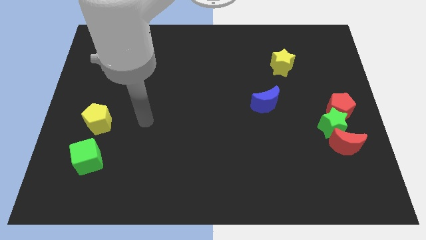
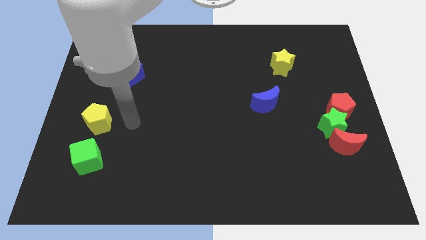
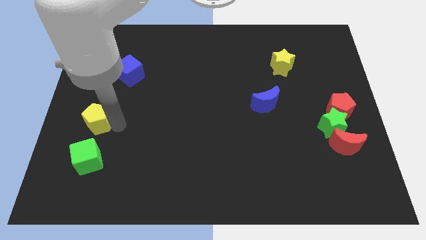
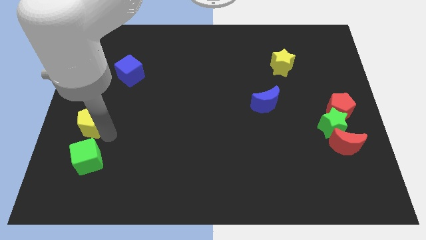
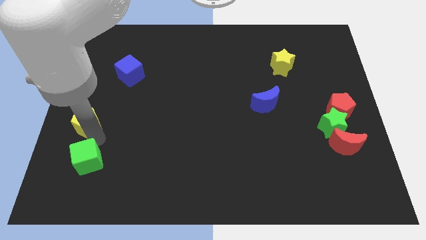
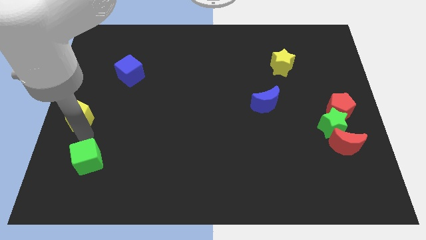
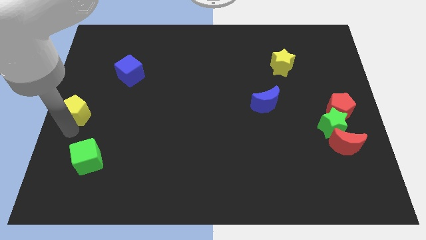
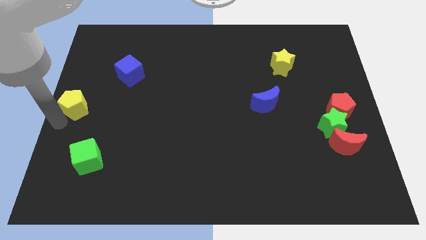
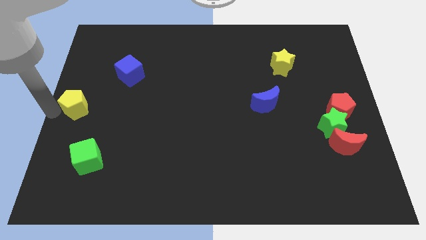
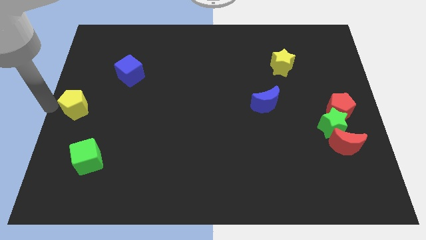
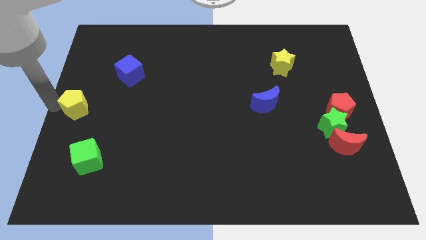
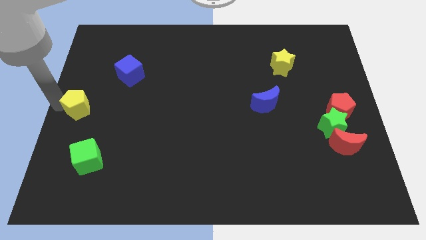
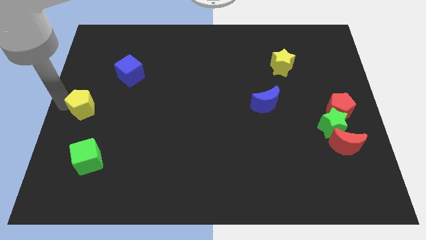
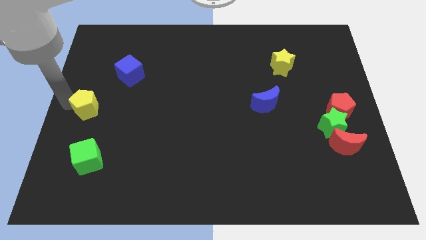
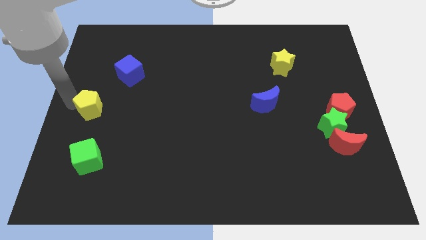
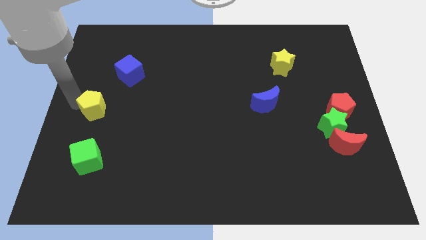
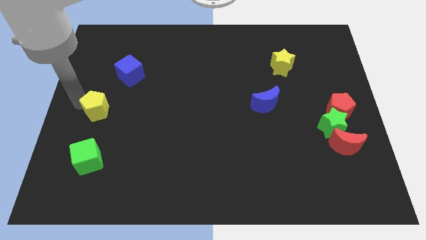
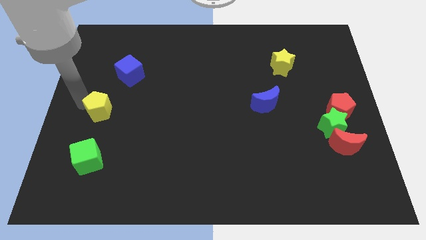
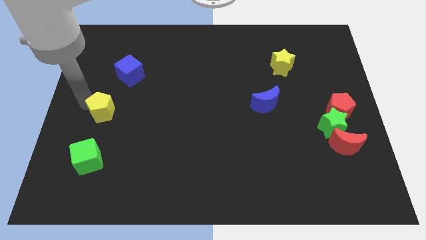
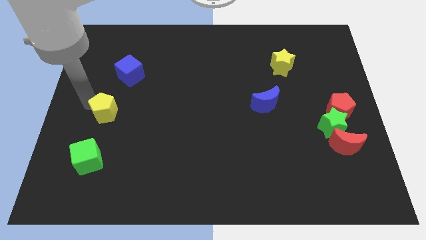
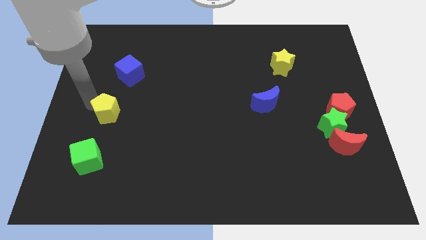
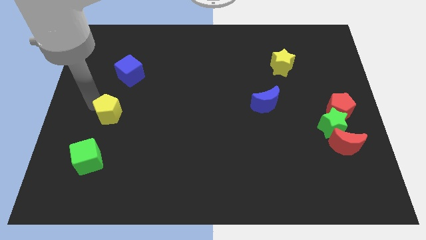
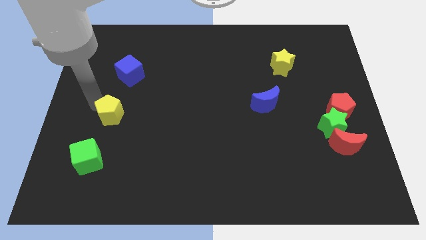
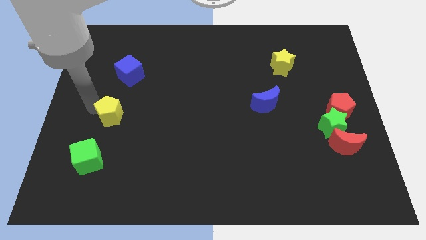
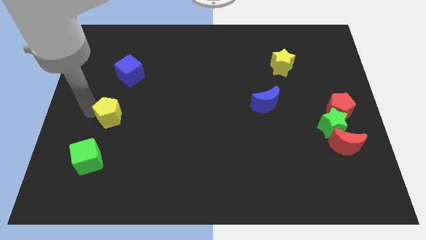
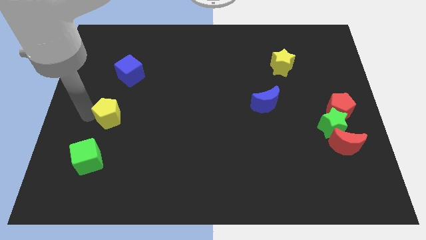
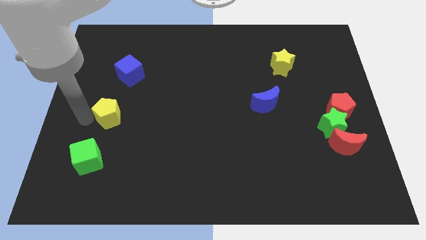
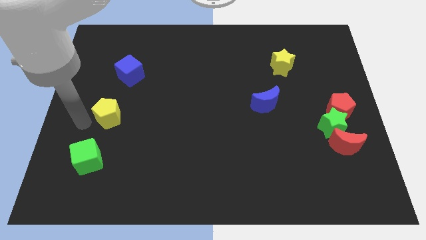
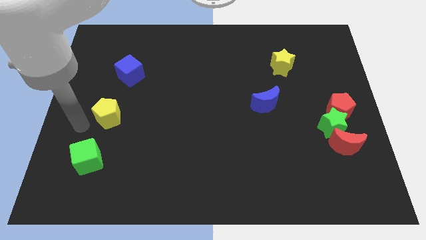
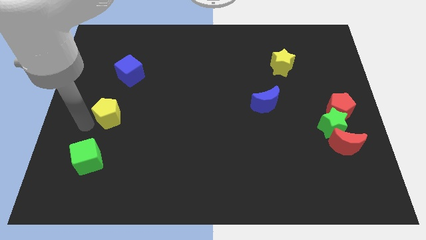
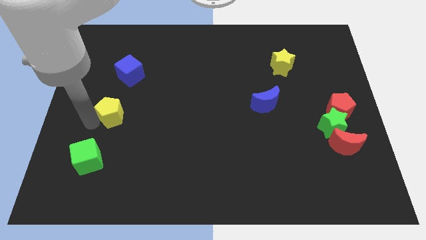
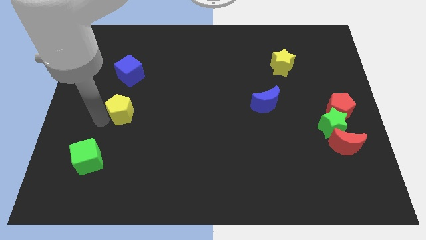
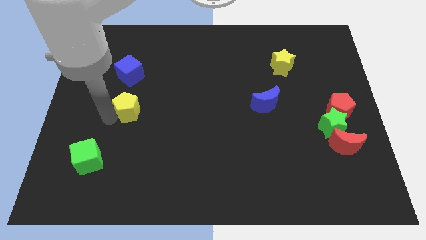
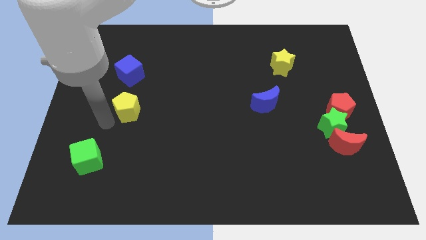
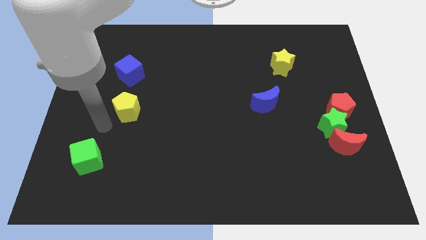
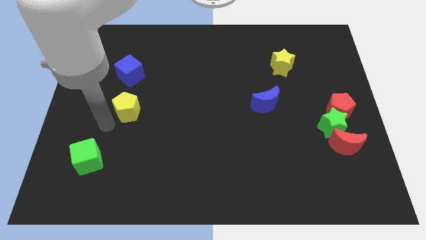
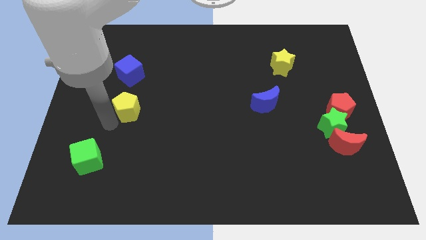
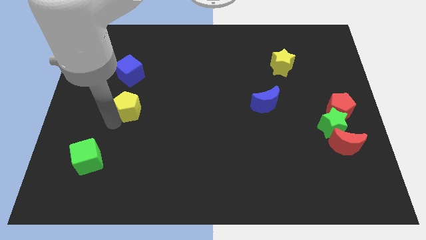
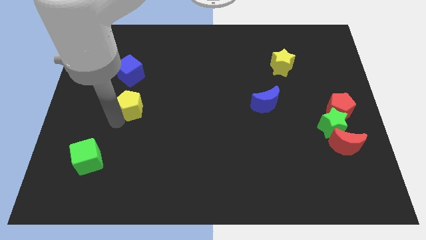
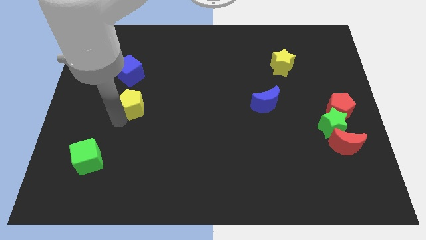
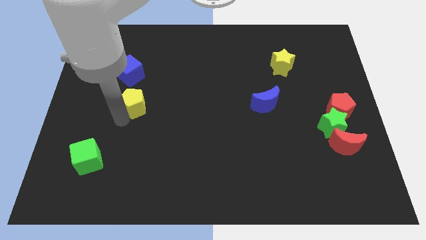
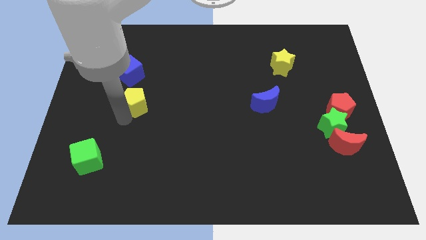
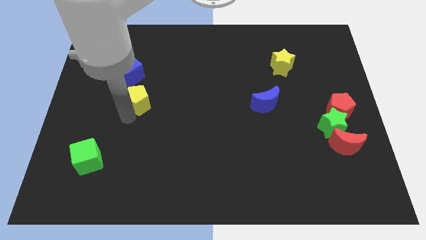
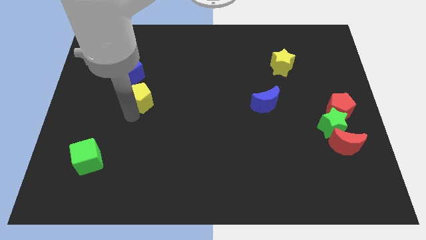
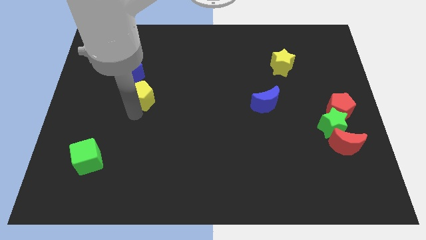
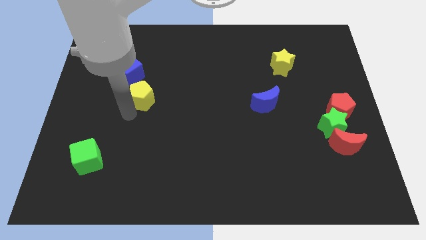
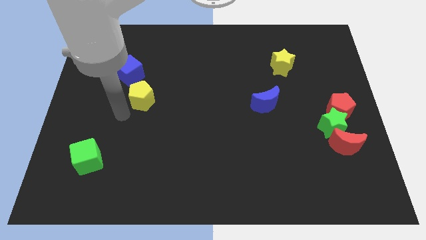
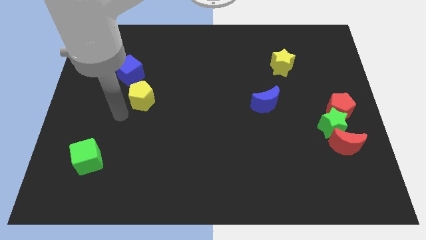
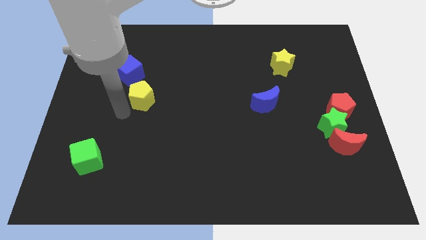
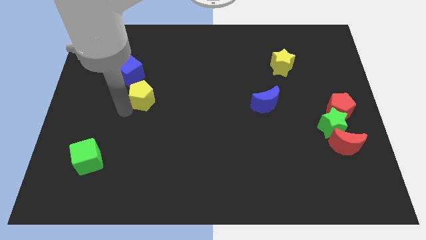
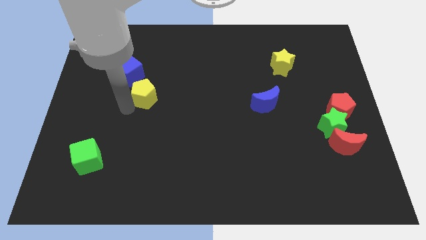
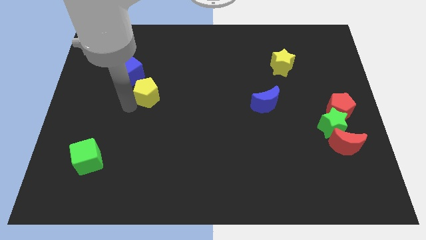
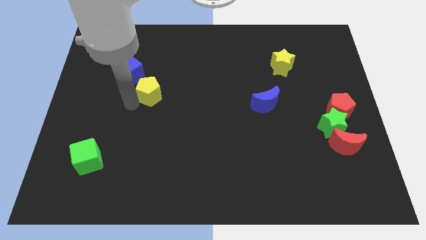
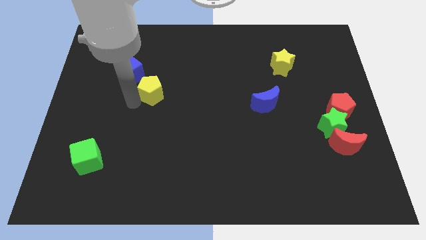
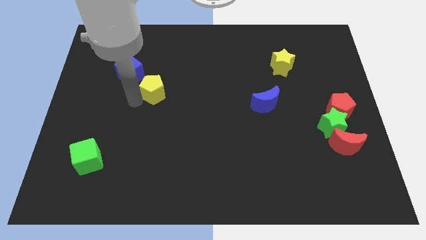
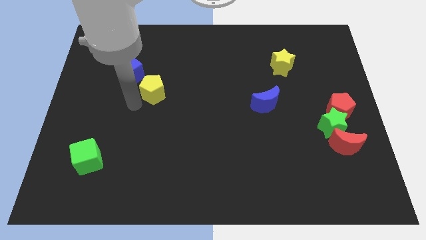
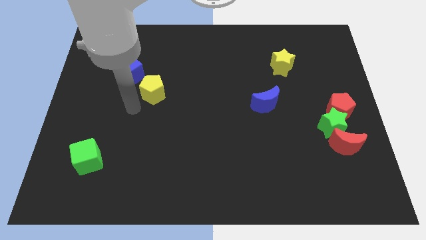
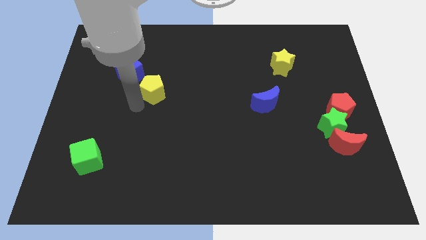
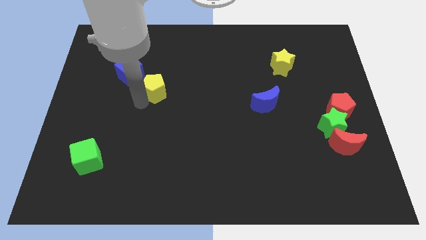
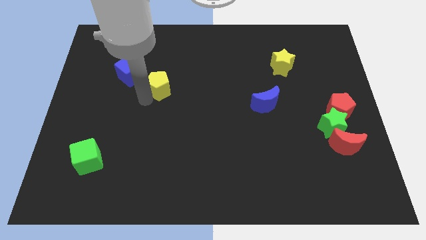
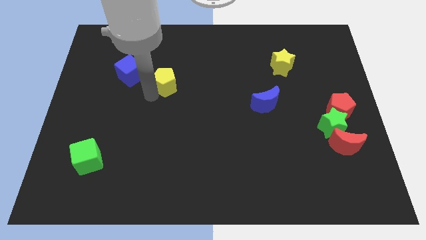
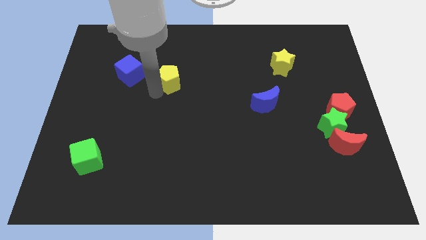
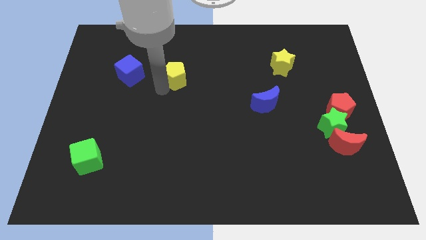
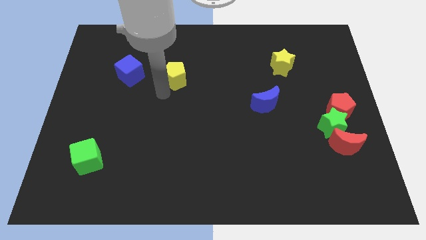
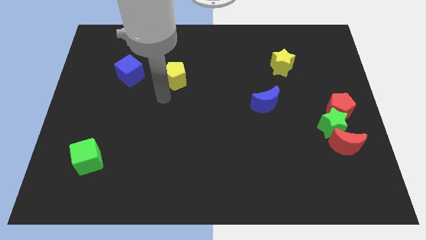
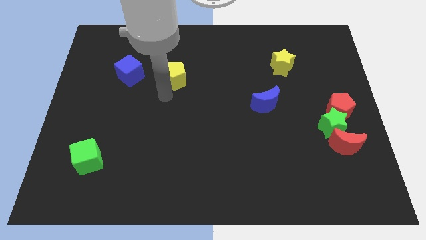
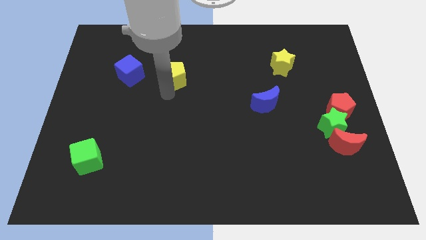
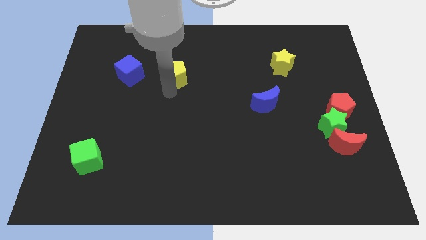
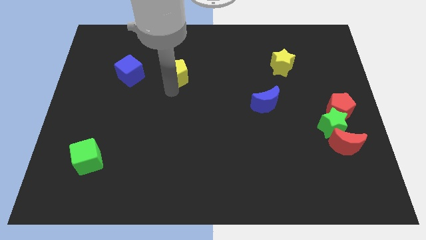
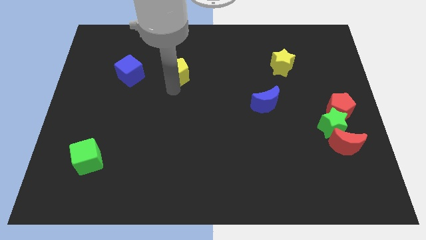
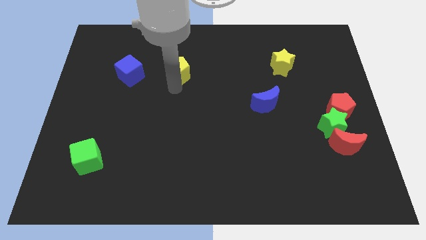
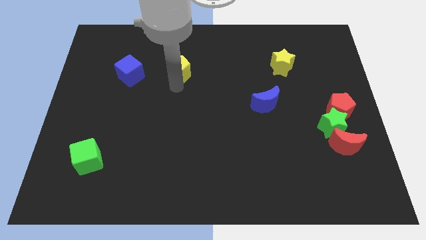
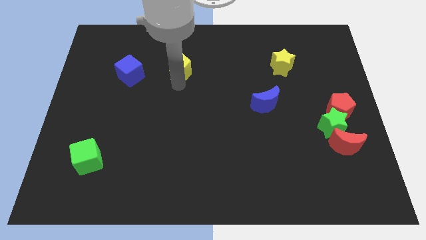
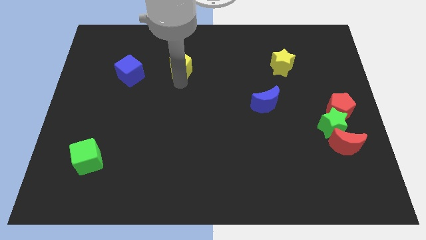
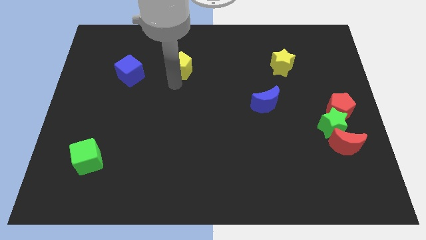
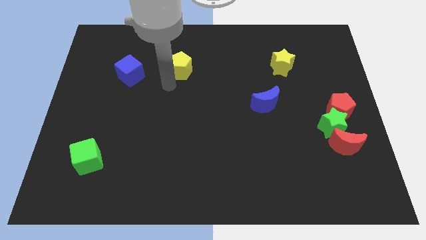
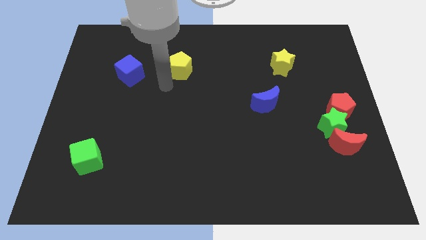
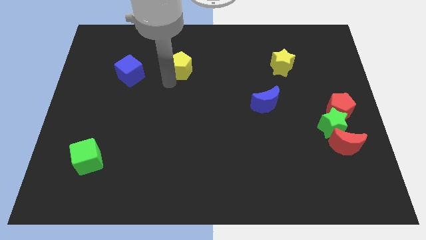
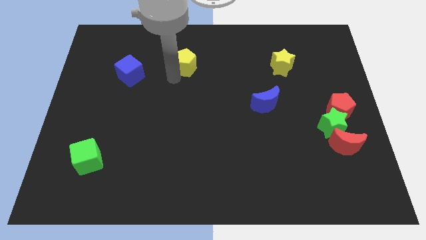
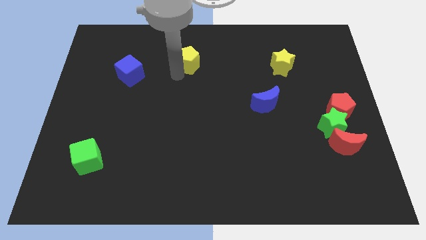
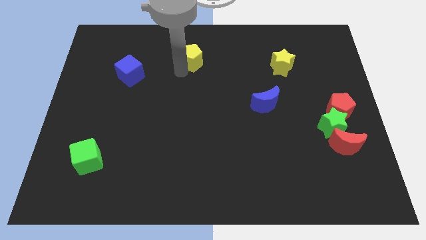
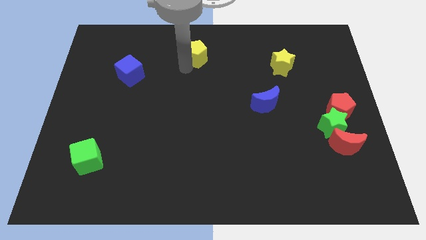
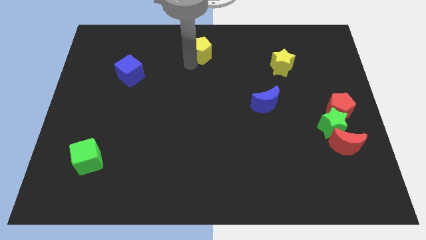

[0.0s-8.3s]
move the yellow pentagon to the top side

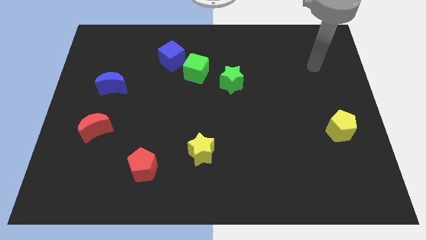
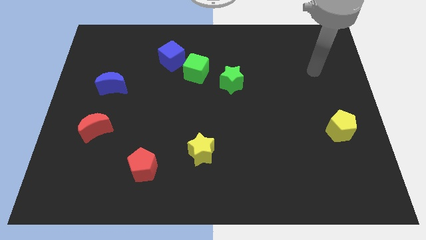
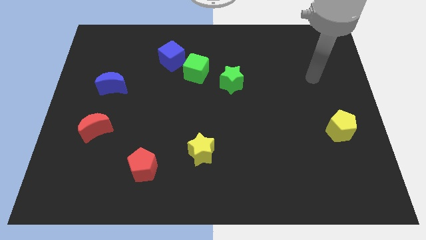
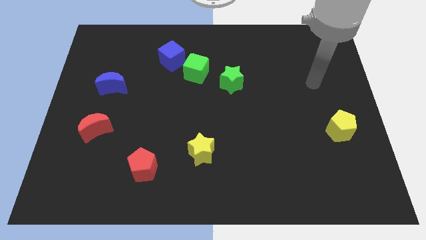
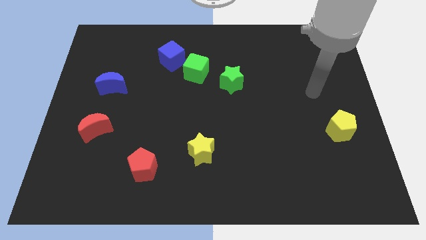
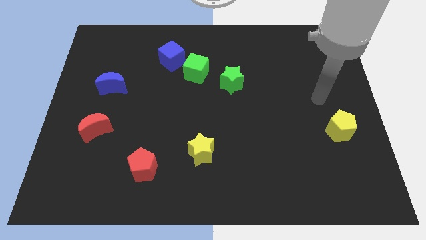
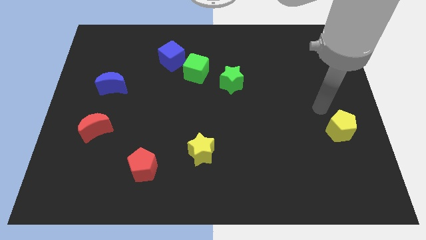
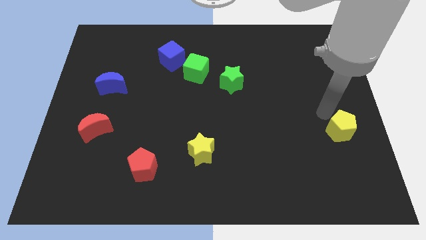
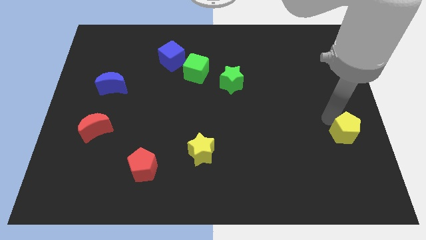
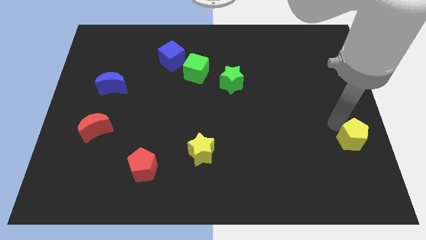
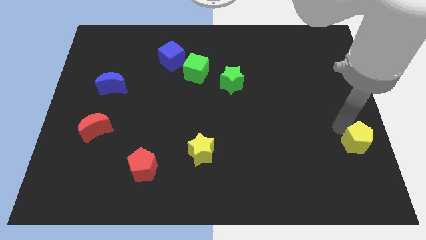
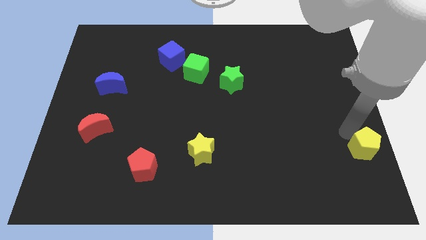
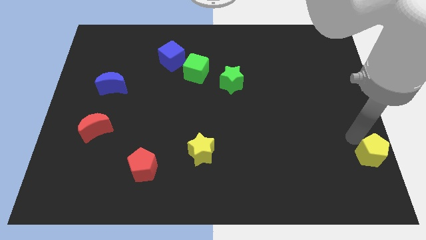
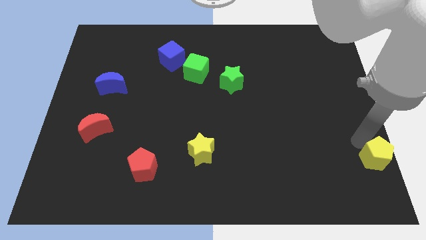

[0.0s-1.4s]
put the yellow pentagon to the bottom right of the board
